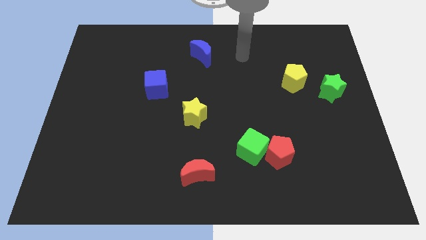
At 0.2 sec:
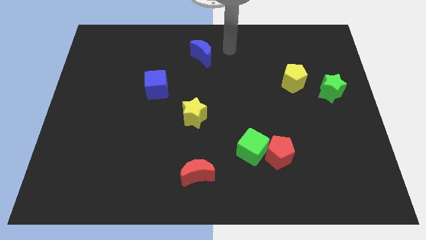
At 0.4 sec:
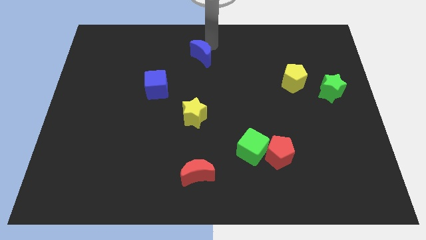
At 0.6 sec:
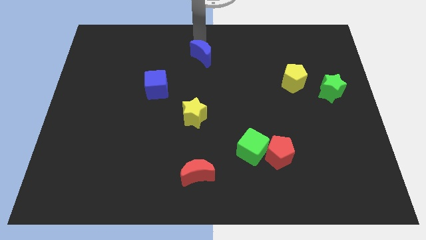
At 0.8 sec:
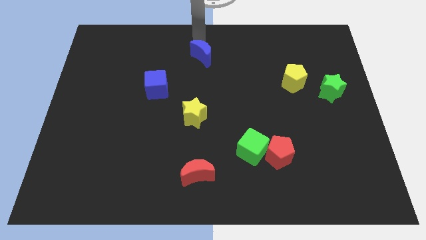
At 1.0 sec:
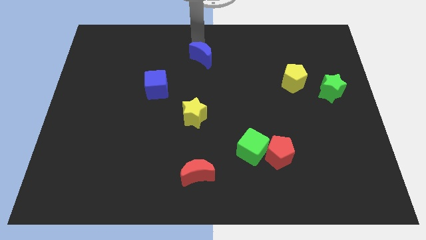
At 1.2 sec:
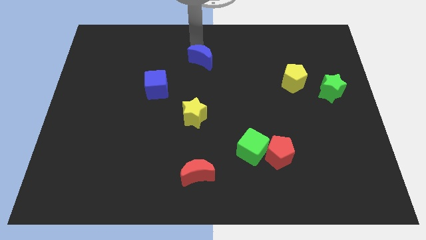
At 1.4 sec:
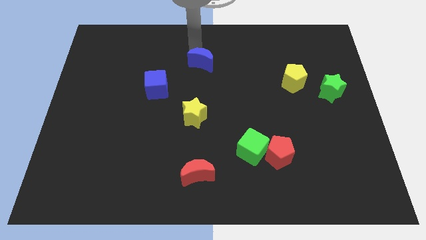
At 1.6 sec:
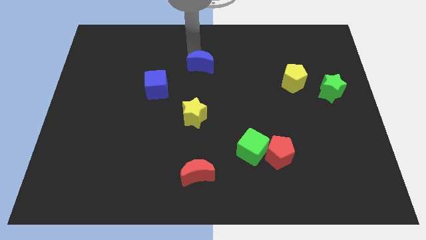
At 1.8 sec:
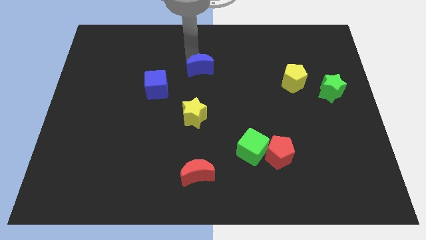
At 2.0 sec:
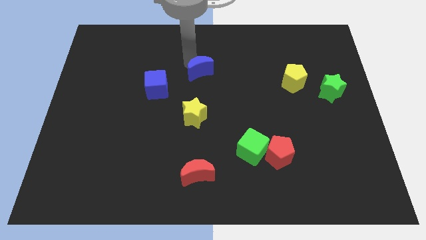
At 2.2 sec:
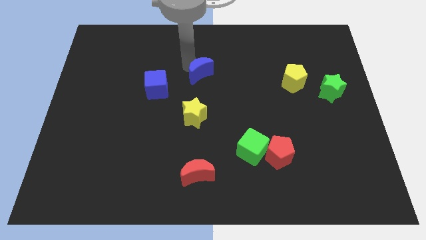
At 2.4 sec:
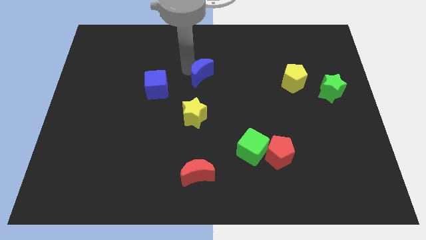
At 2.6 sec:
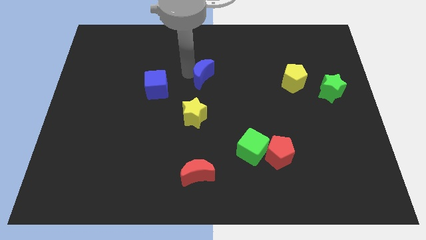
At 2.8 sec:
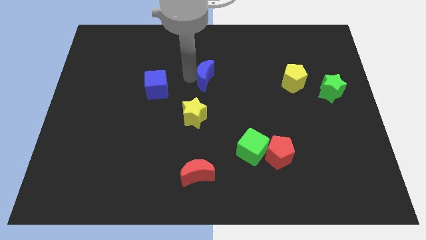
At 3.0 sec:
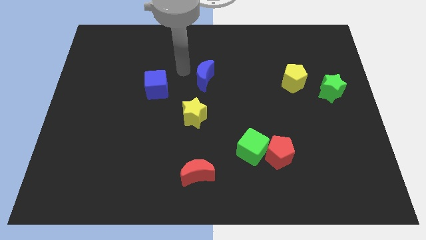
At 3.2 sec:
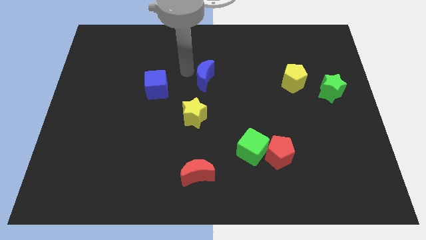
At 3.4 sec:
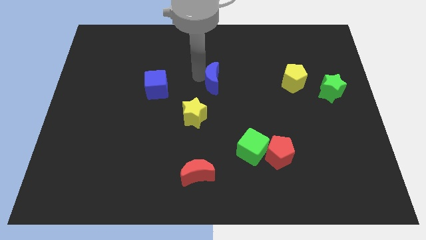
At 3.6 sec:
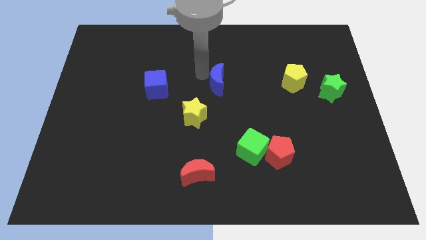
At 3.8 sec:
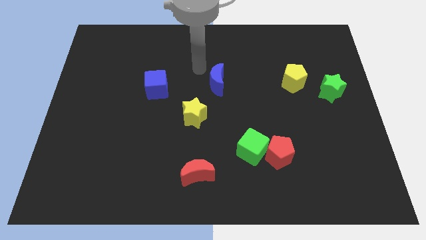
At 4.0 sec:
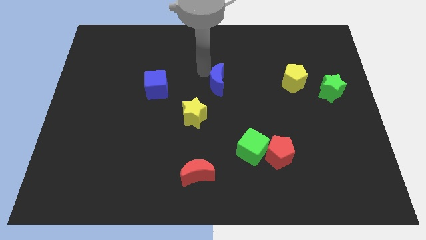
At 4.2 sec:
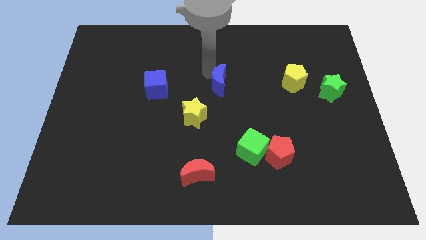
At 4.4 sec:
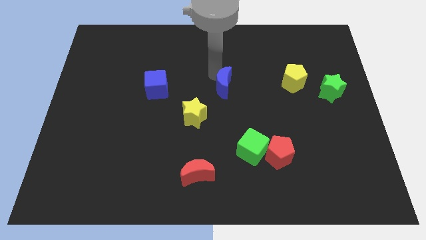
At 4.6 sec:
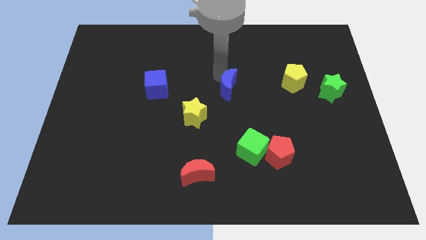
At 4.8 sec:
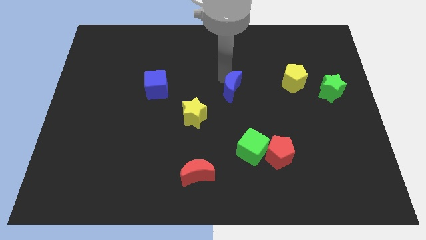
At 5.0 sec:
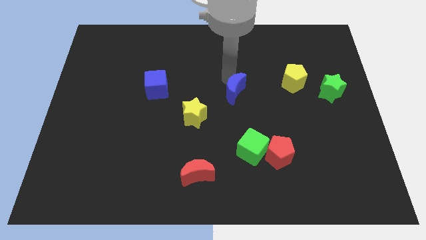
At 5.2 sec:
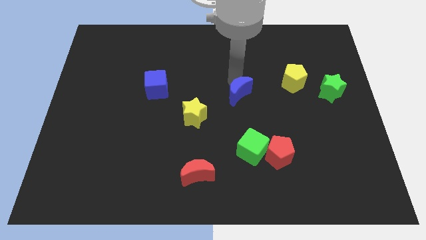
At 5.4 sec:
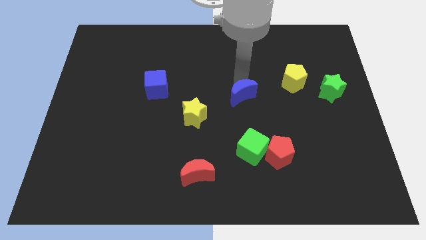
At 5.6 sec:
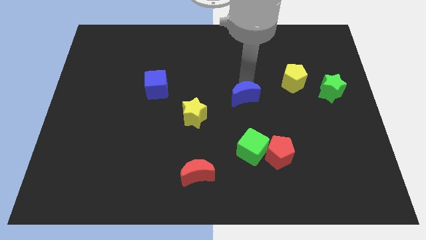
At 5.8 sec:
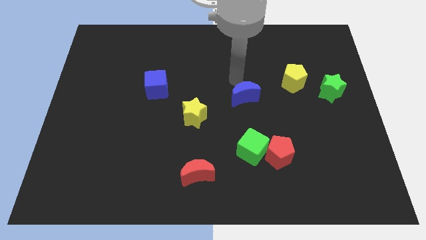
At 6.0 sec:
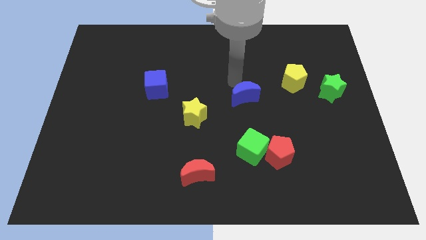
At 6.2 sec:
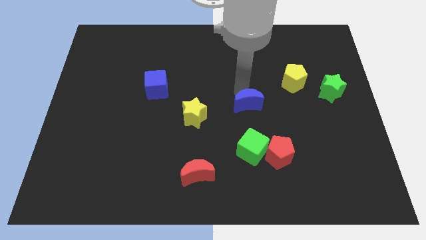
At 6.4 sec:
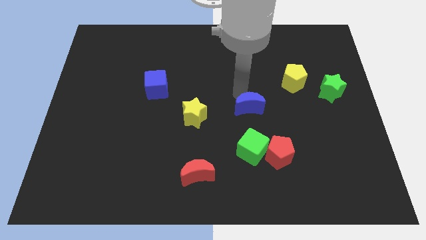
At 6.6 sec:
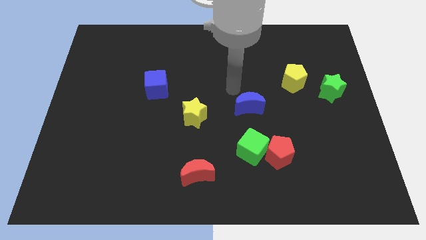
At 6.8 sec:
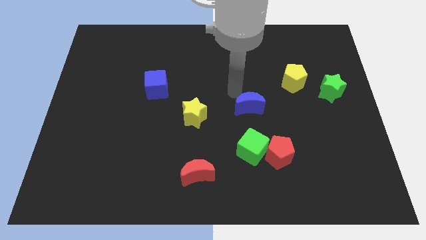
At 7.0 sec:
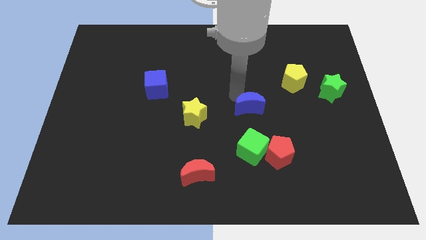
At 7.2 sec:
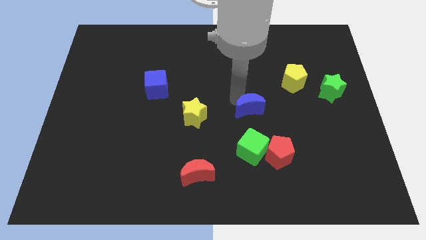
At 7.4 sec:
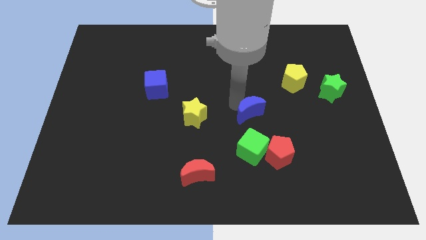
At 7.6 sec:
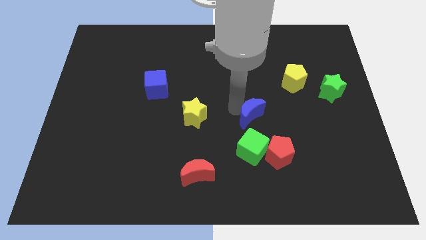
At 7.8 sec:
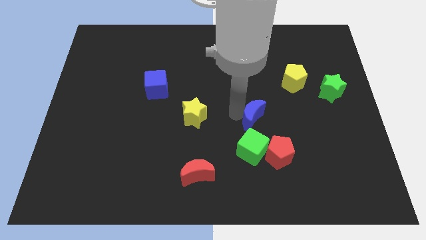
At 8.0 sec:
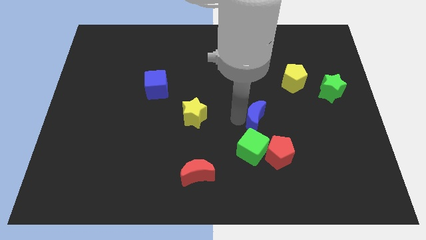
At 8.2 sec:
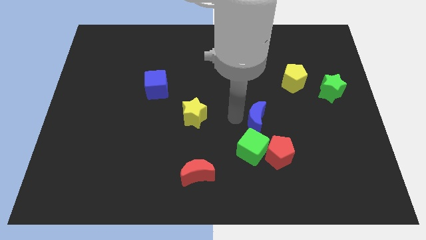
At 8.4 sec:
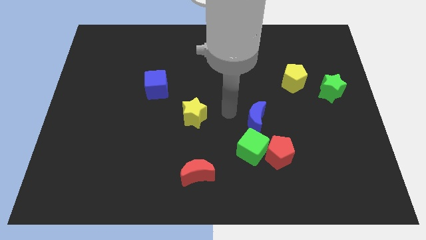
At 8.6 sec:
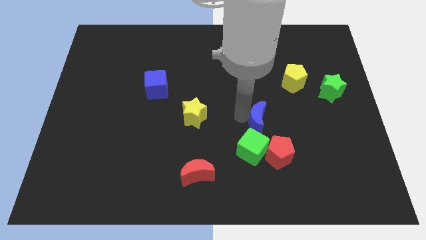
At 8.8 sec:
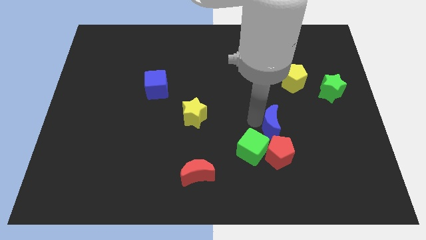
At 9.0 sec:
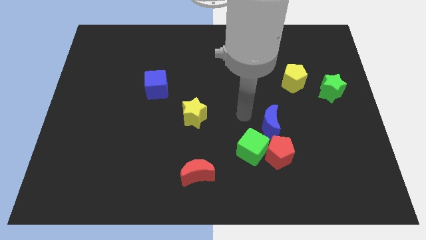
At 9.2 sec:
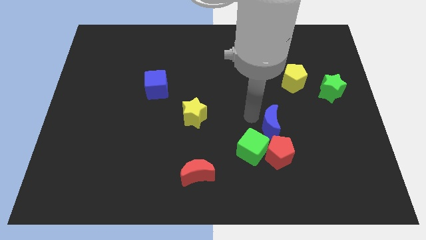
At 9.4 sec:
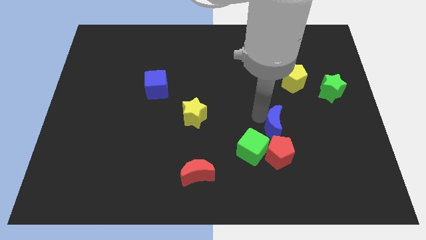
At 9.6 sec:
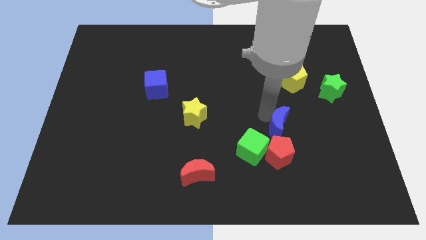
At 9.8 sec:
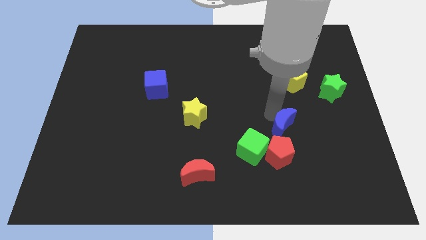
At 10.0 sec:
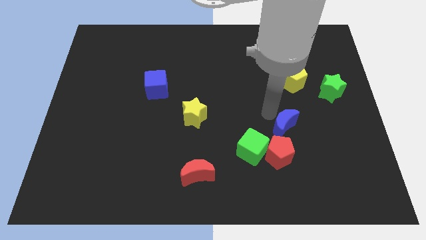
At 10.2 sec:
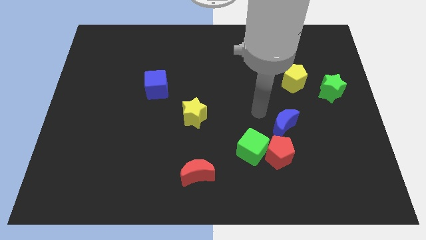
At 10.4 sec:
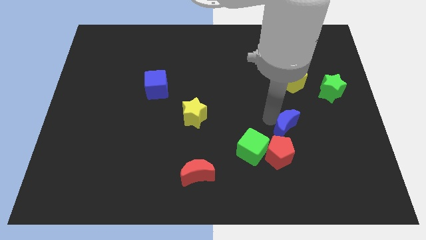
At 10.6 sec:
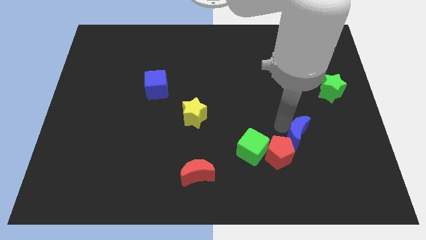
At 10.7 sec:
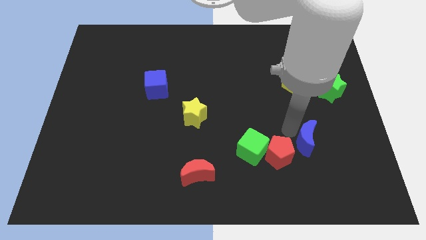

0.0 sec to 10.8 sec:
put the blue moon just right of the red pentagon

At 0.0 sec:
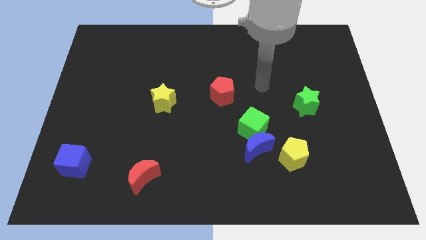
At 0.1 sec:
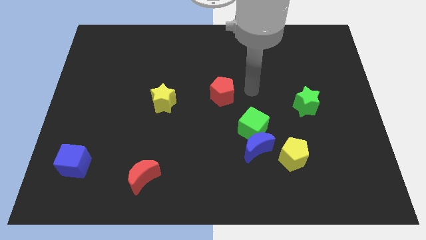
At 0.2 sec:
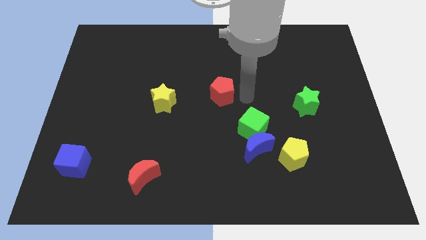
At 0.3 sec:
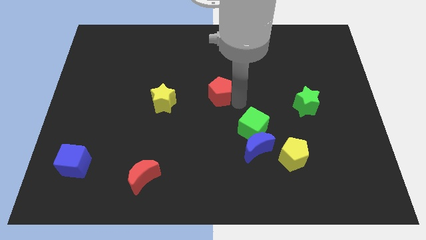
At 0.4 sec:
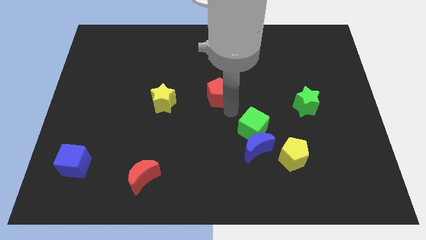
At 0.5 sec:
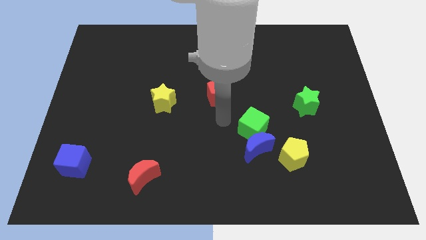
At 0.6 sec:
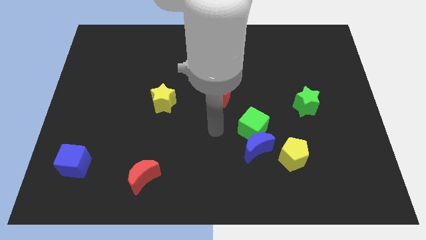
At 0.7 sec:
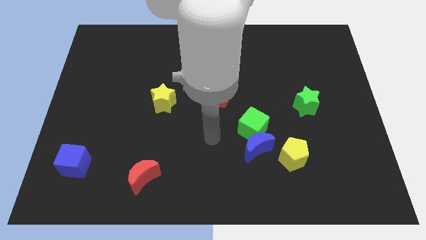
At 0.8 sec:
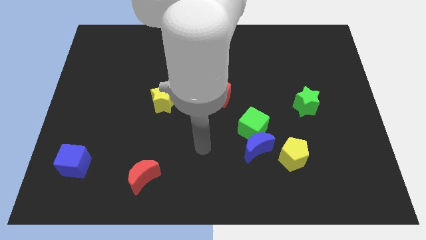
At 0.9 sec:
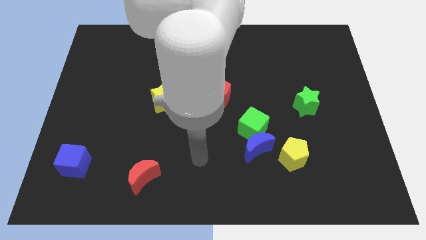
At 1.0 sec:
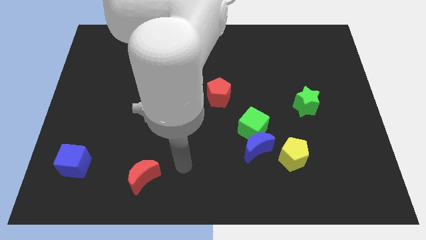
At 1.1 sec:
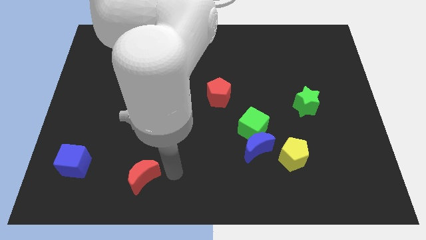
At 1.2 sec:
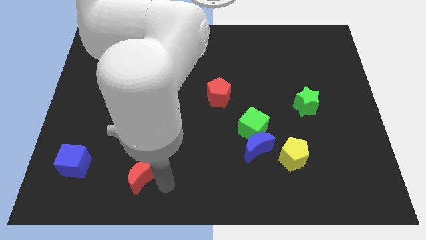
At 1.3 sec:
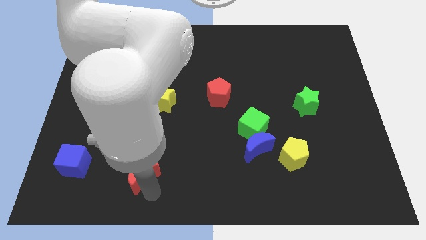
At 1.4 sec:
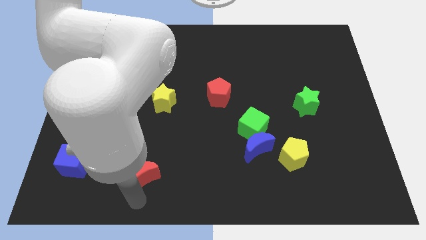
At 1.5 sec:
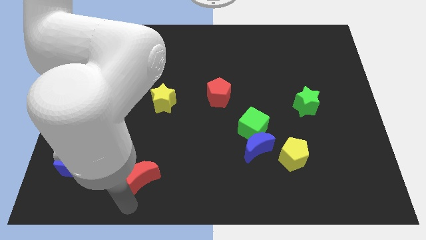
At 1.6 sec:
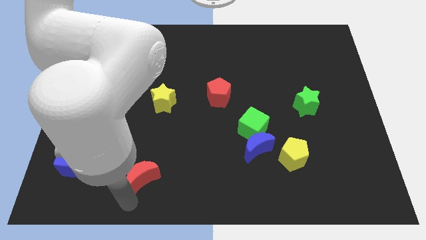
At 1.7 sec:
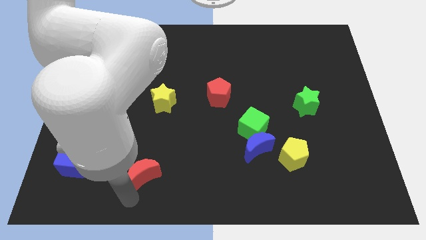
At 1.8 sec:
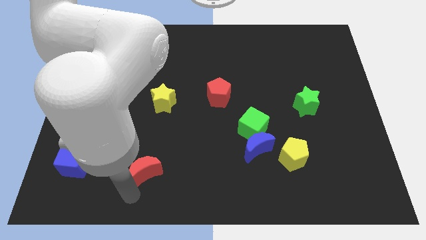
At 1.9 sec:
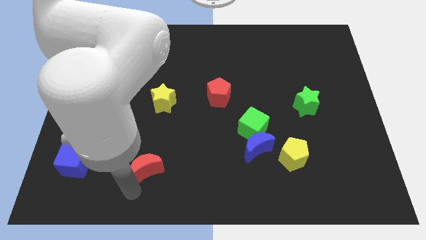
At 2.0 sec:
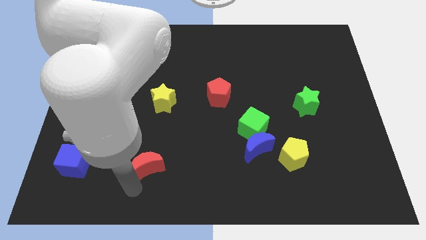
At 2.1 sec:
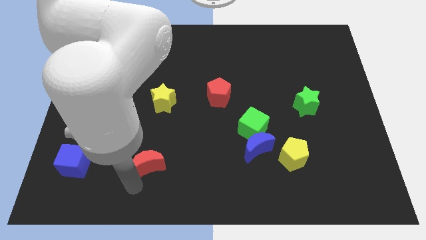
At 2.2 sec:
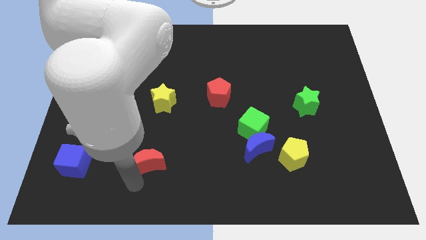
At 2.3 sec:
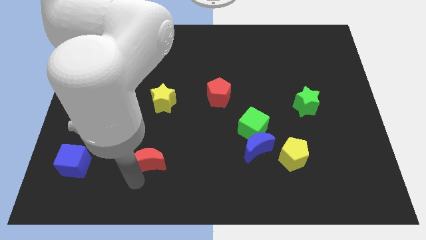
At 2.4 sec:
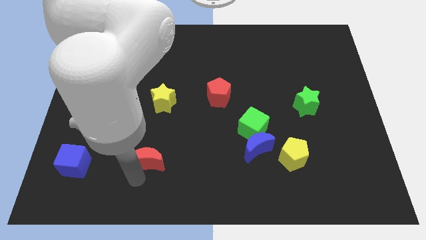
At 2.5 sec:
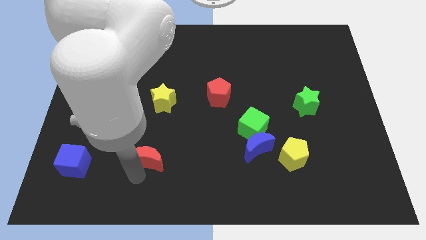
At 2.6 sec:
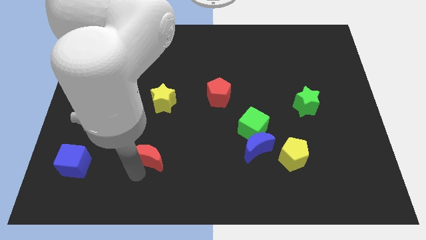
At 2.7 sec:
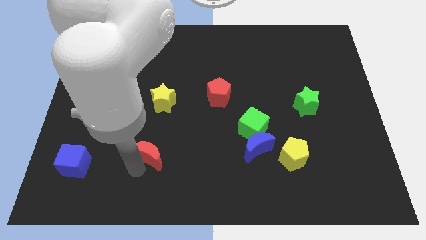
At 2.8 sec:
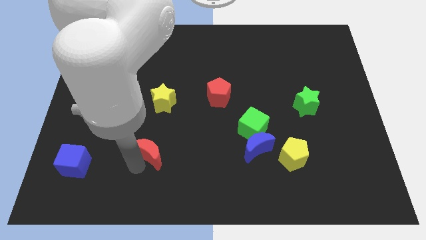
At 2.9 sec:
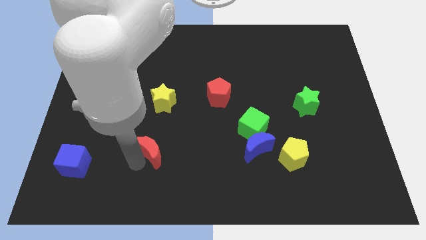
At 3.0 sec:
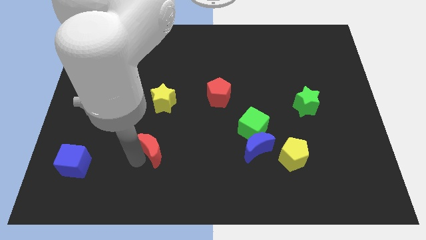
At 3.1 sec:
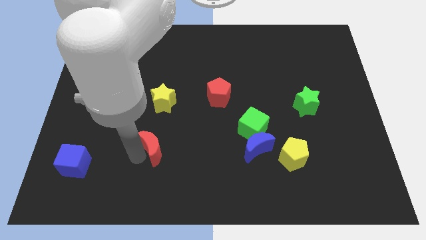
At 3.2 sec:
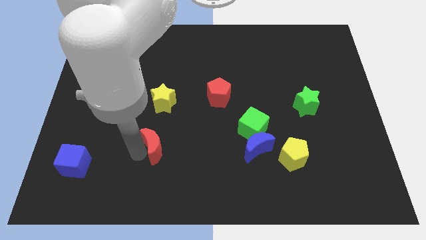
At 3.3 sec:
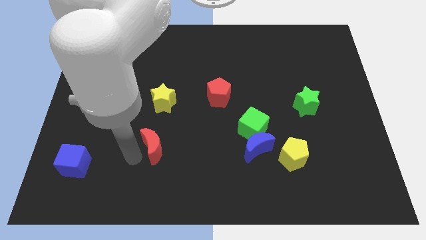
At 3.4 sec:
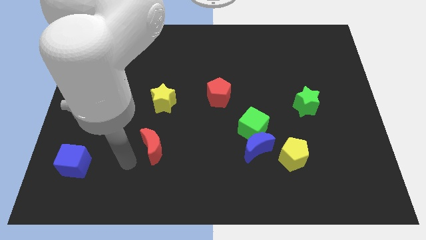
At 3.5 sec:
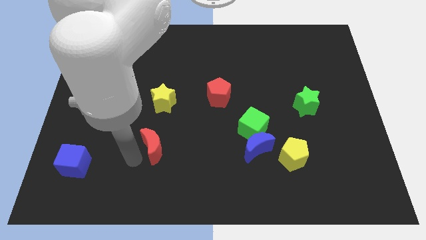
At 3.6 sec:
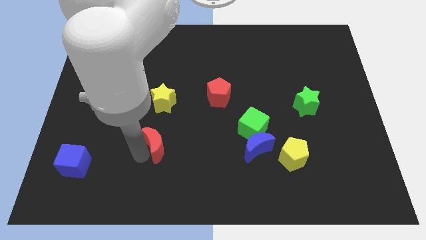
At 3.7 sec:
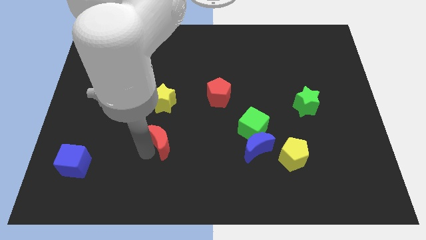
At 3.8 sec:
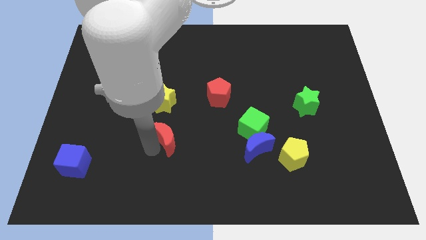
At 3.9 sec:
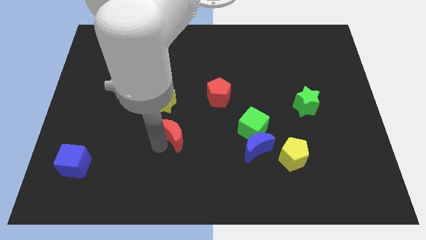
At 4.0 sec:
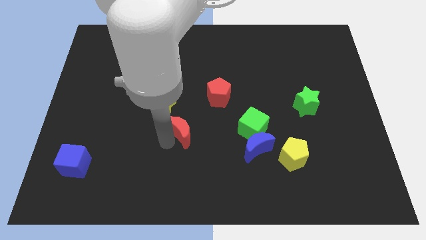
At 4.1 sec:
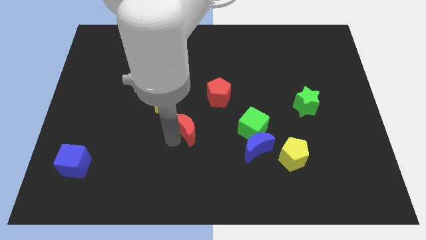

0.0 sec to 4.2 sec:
put the red moon to the bottom left side of the red pentagon
